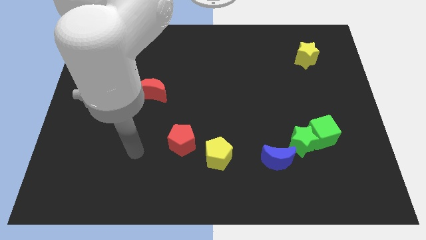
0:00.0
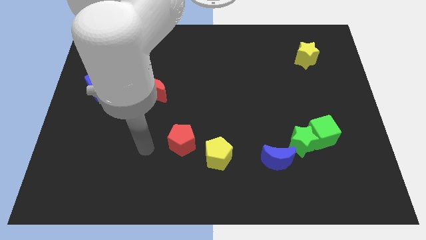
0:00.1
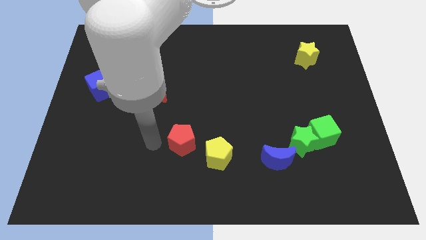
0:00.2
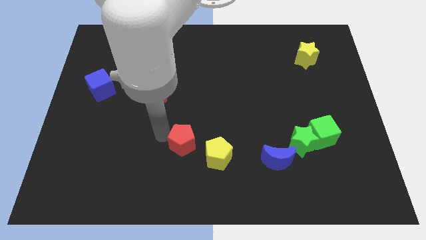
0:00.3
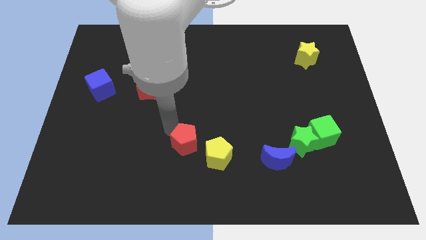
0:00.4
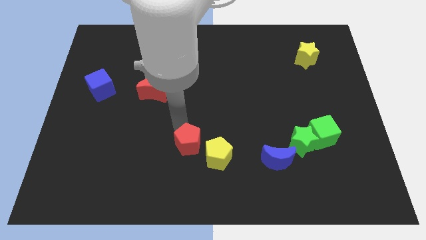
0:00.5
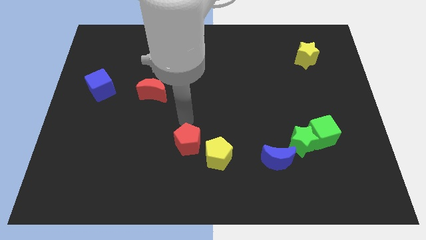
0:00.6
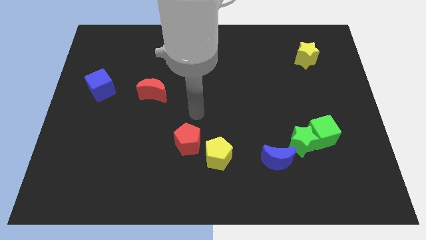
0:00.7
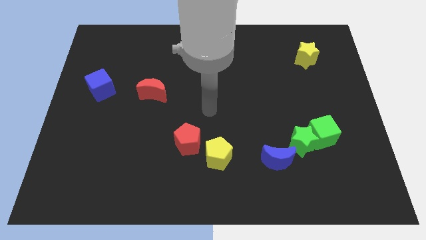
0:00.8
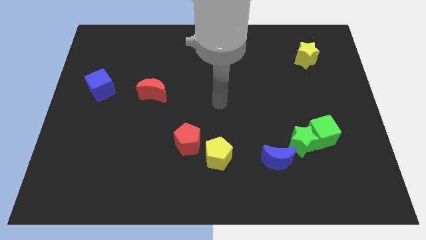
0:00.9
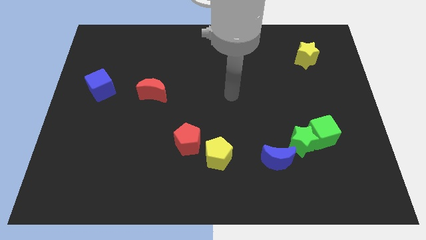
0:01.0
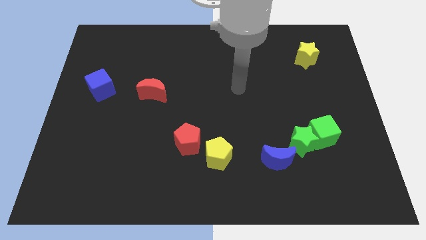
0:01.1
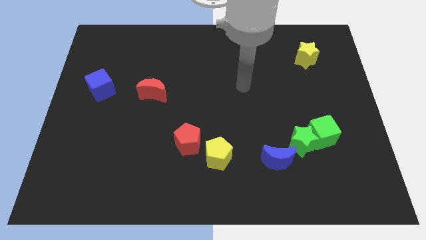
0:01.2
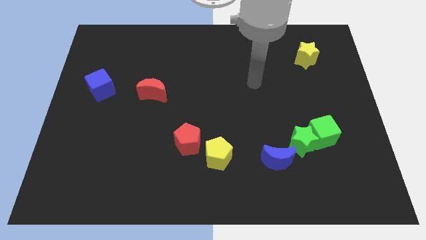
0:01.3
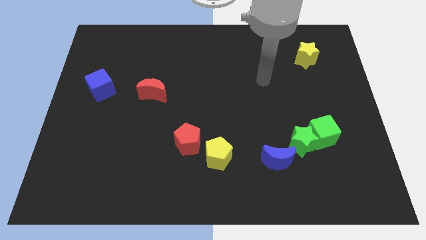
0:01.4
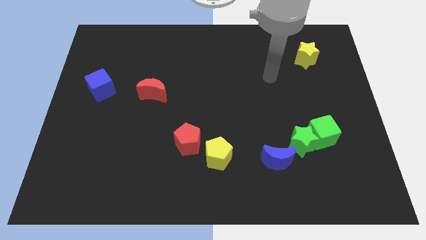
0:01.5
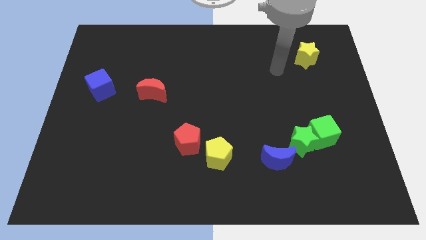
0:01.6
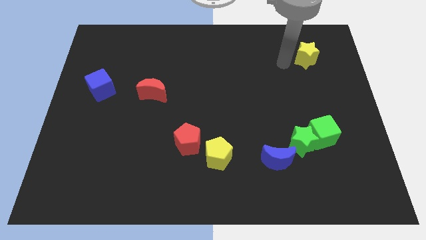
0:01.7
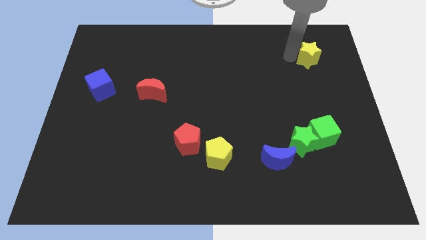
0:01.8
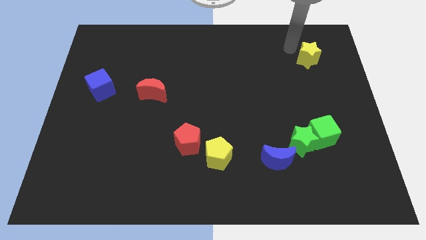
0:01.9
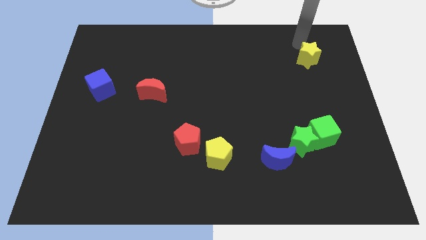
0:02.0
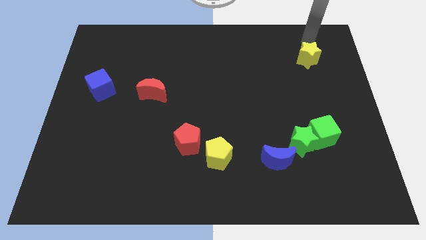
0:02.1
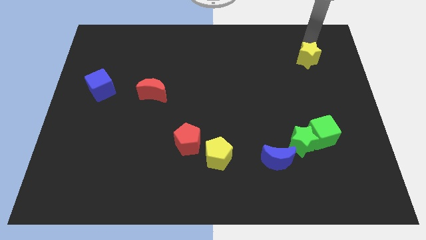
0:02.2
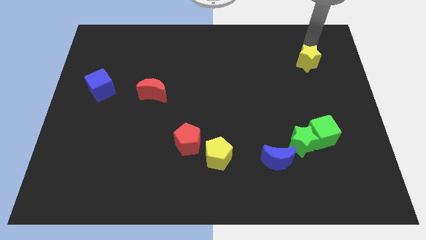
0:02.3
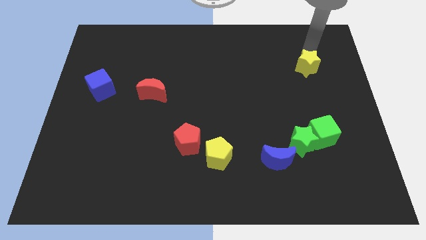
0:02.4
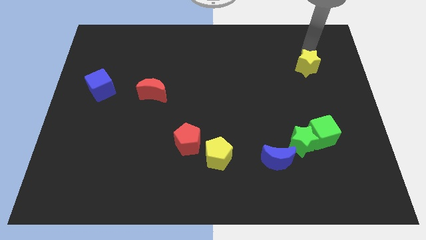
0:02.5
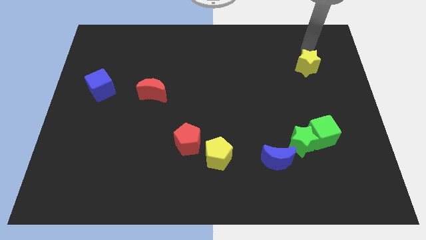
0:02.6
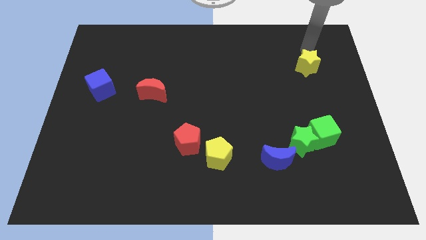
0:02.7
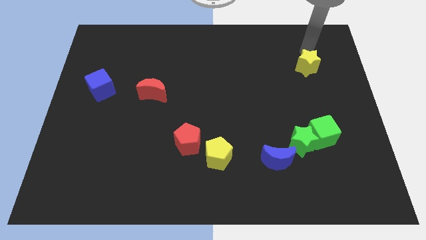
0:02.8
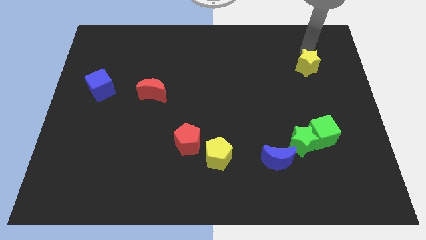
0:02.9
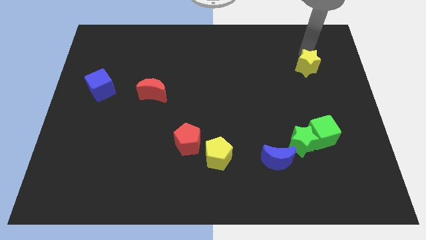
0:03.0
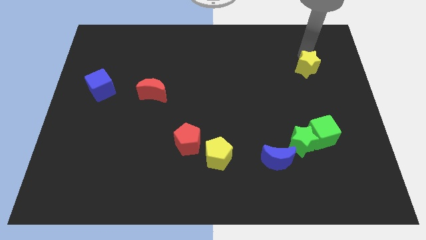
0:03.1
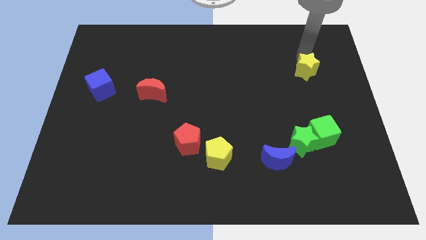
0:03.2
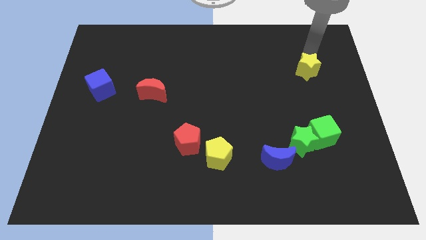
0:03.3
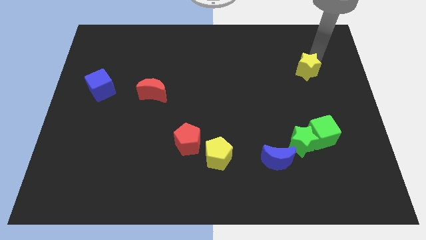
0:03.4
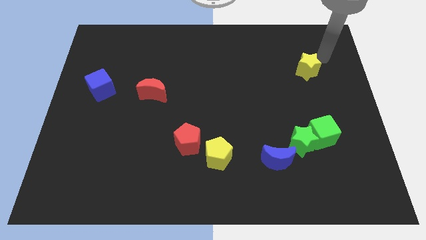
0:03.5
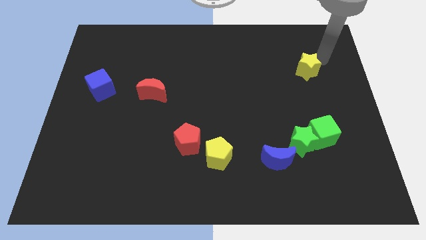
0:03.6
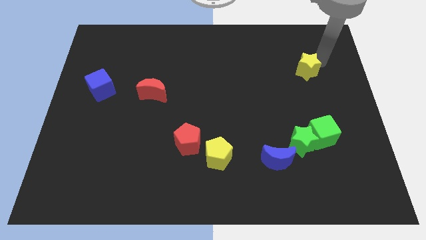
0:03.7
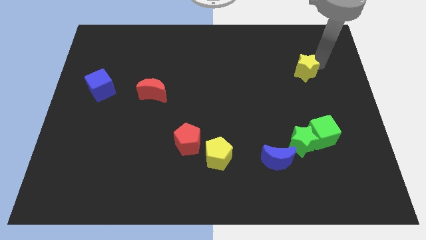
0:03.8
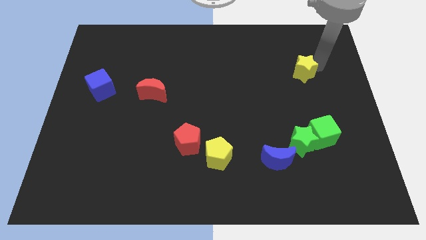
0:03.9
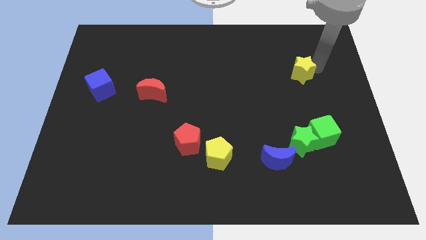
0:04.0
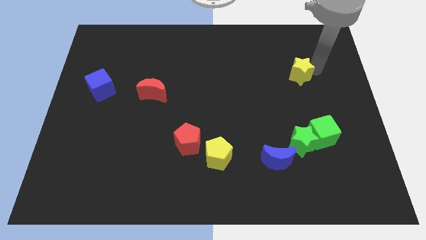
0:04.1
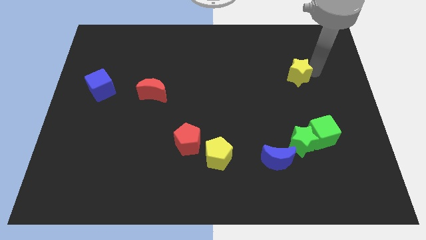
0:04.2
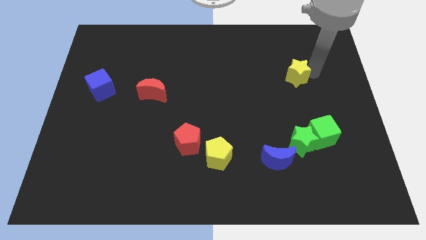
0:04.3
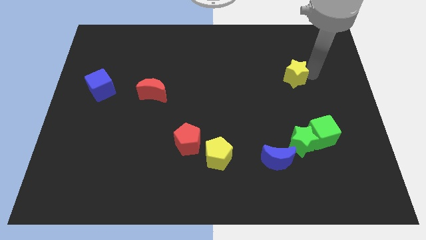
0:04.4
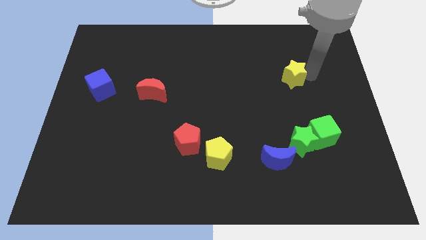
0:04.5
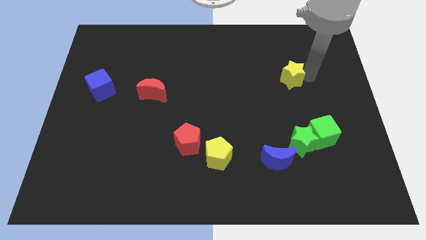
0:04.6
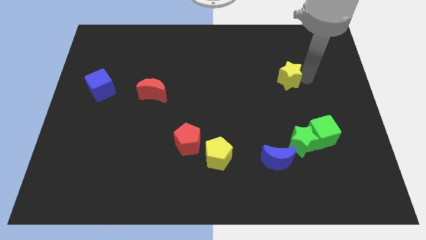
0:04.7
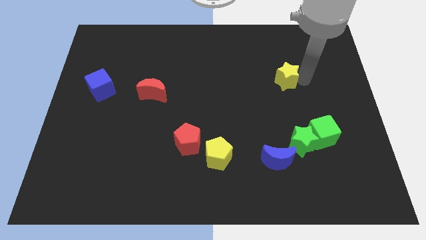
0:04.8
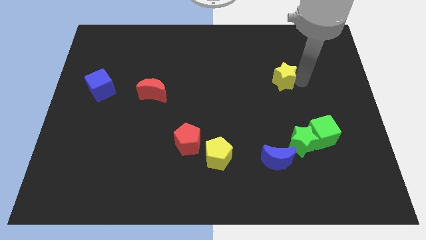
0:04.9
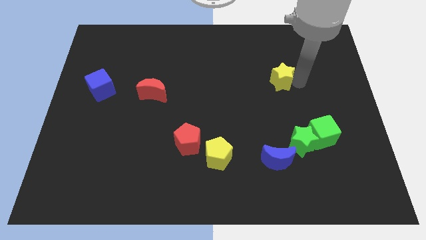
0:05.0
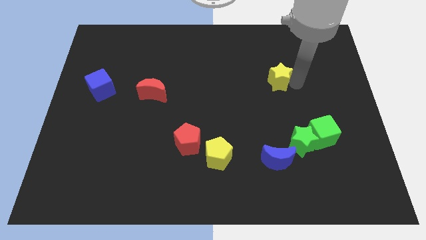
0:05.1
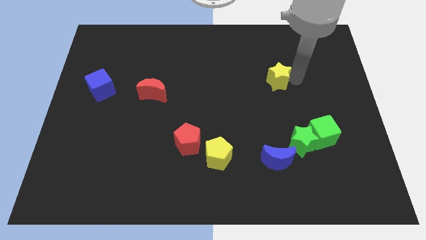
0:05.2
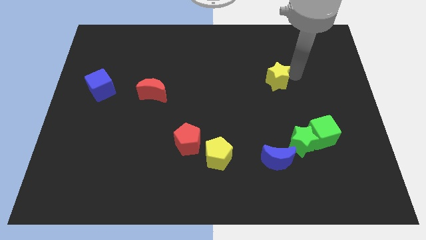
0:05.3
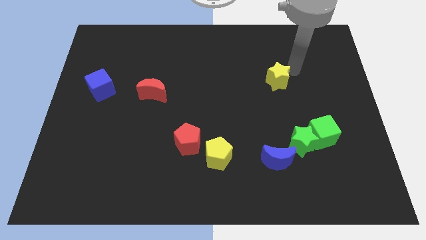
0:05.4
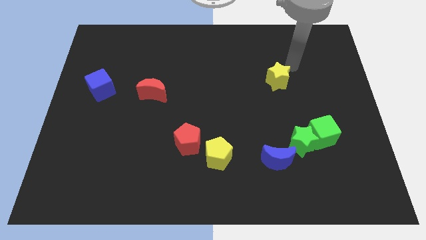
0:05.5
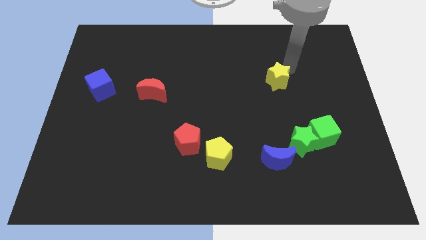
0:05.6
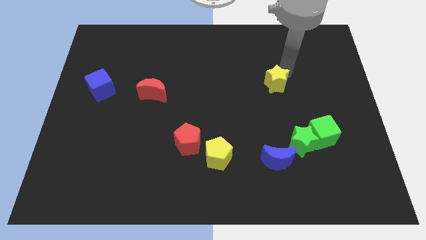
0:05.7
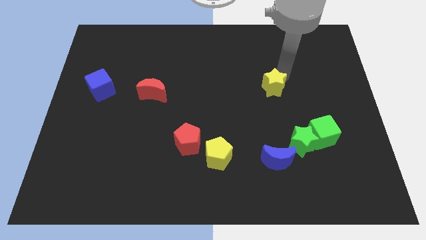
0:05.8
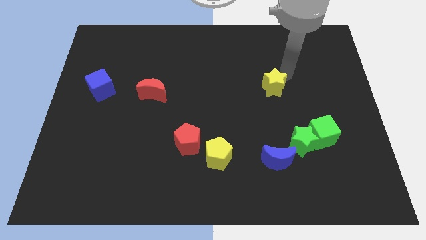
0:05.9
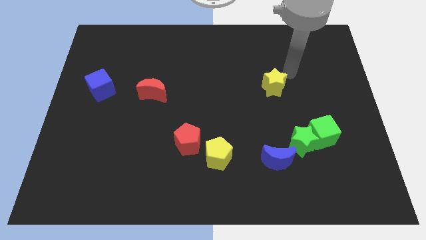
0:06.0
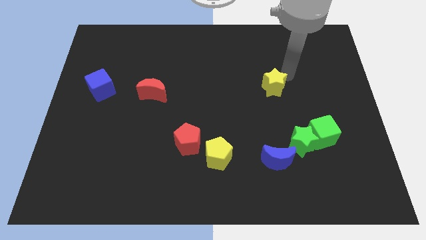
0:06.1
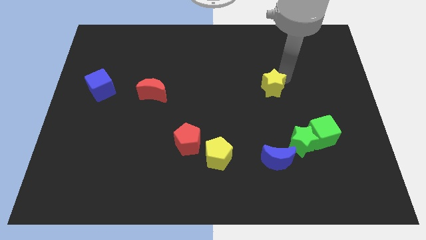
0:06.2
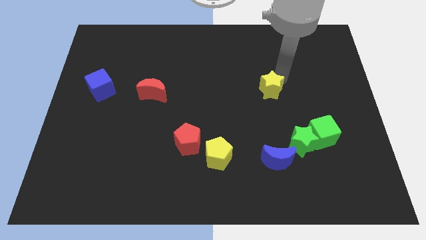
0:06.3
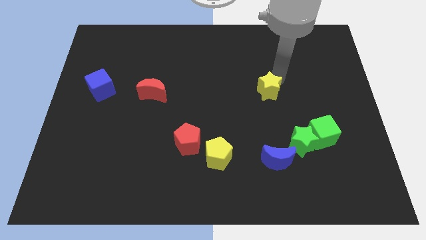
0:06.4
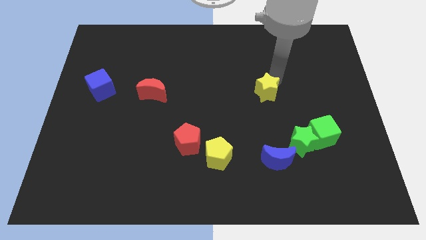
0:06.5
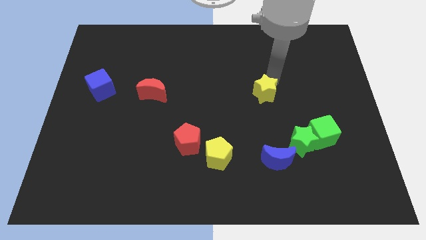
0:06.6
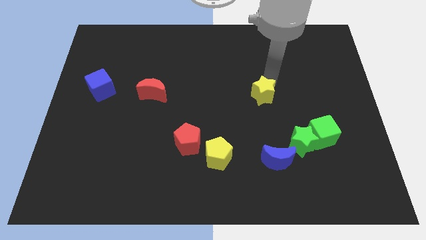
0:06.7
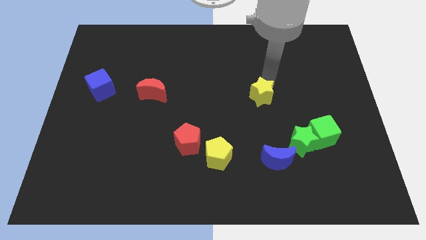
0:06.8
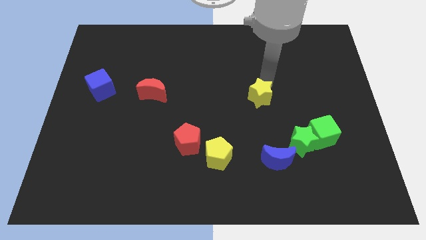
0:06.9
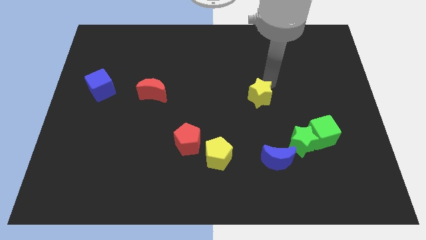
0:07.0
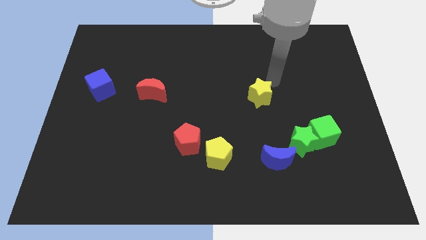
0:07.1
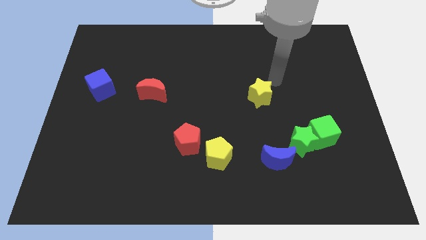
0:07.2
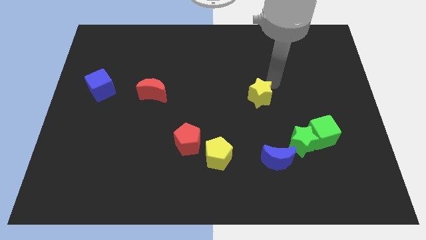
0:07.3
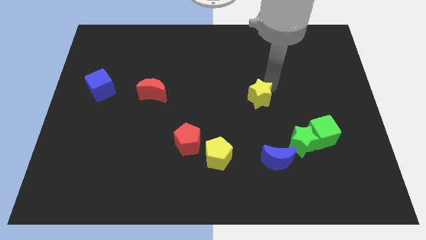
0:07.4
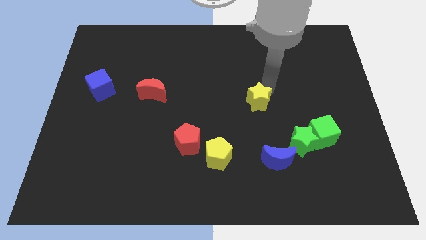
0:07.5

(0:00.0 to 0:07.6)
slide the yellow star downwards and to the left

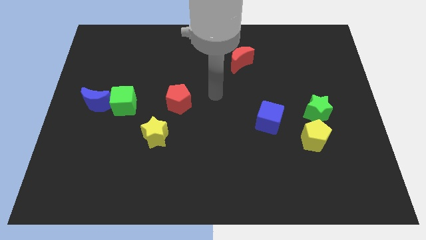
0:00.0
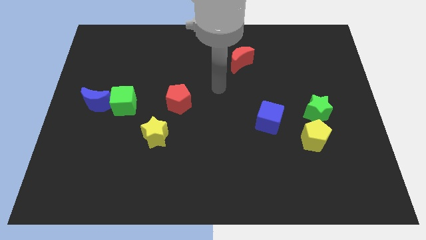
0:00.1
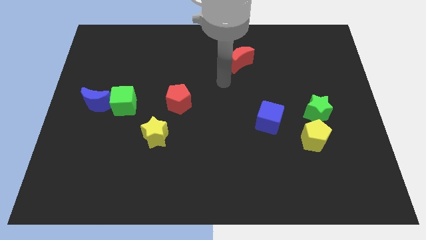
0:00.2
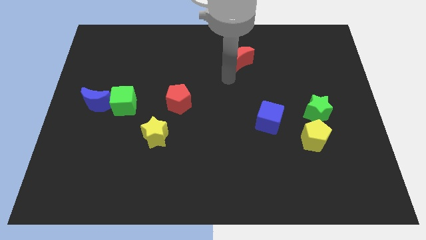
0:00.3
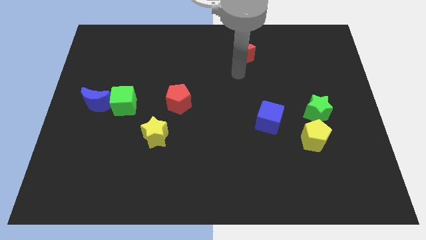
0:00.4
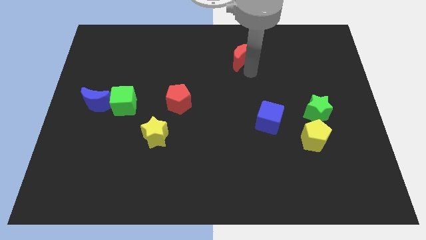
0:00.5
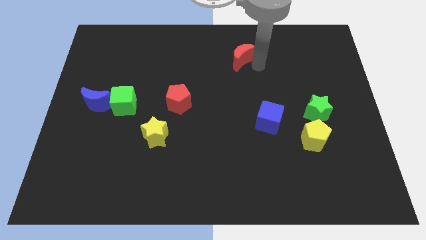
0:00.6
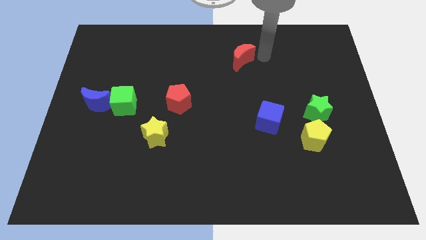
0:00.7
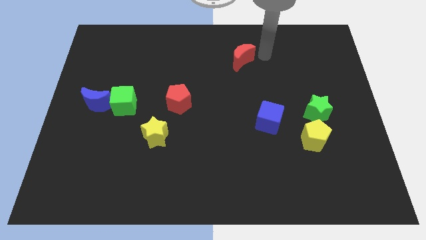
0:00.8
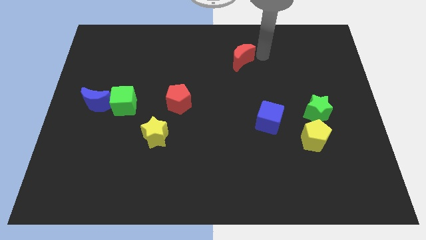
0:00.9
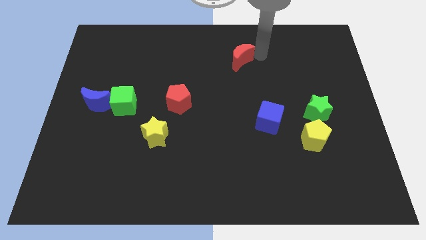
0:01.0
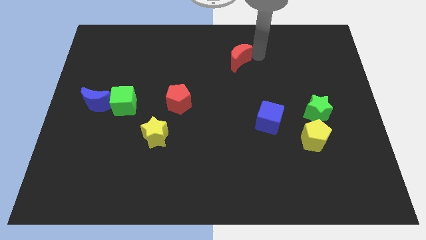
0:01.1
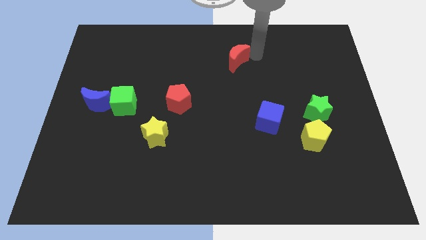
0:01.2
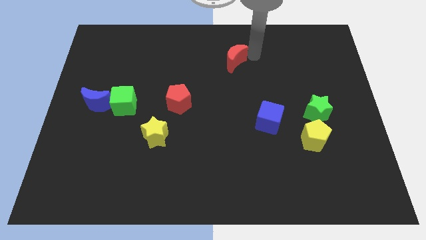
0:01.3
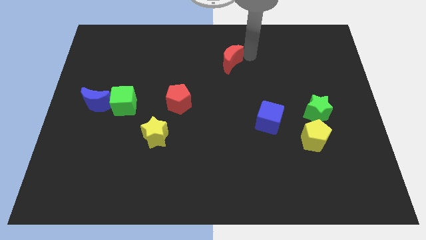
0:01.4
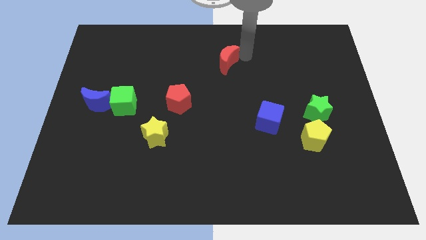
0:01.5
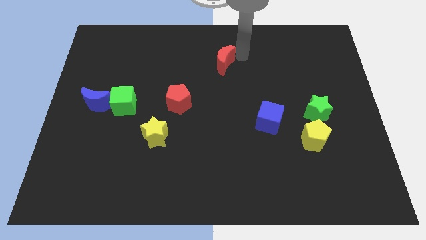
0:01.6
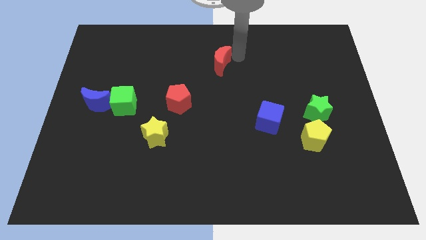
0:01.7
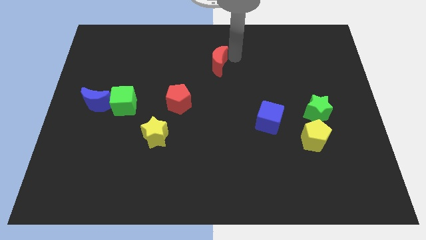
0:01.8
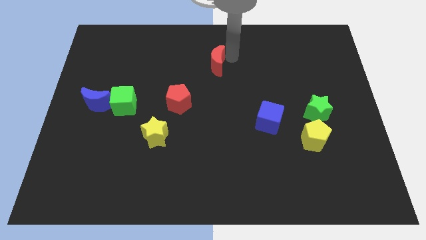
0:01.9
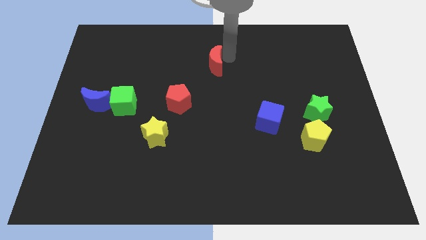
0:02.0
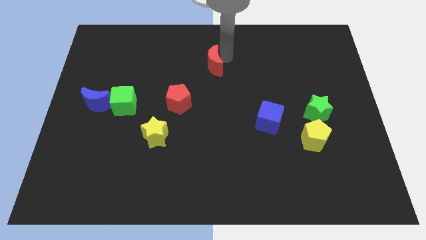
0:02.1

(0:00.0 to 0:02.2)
move the red moon left a little bit
